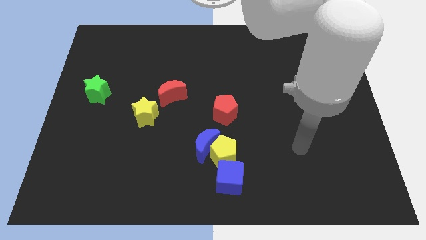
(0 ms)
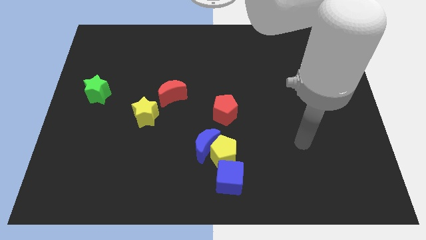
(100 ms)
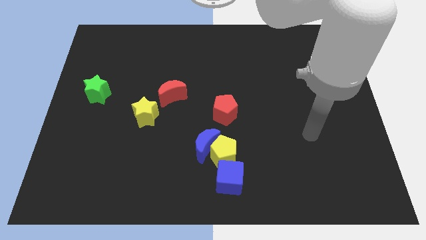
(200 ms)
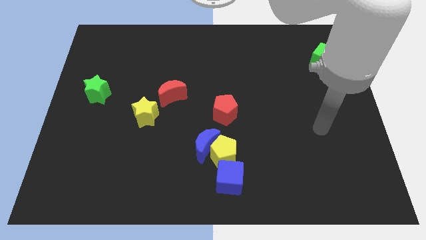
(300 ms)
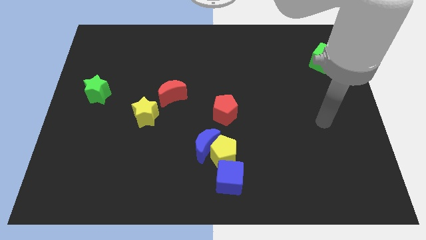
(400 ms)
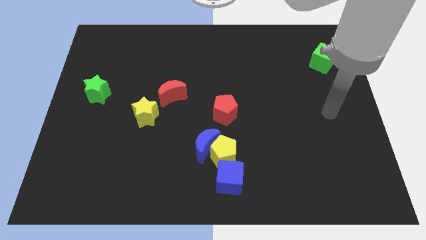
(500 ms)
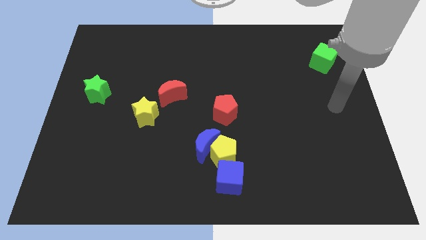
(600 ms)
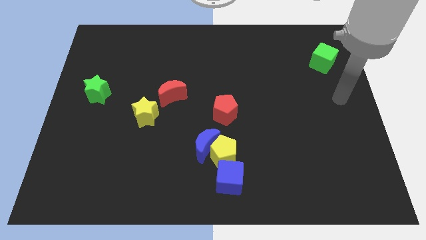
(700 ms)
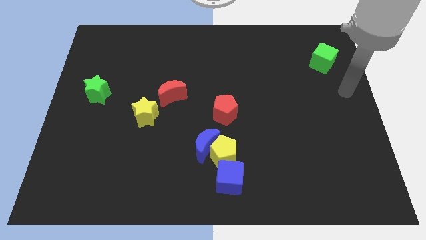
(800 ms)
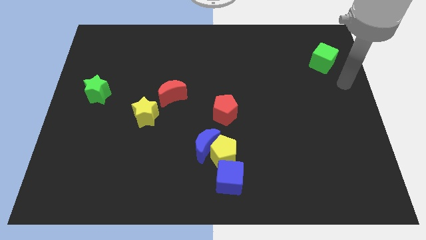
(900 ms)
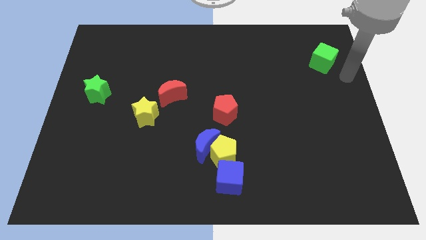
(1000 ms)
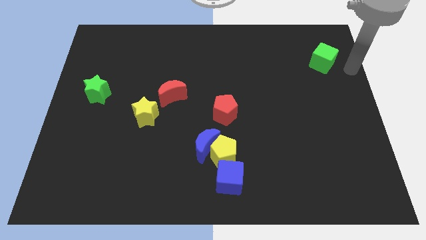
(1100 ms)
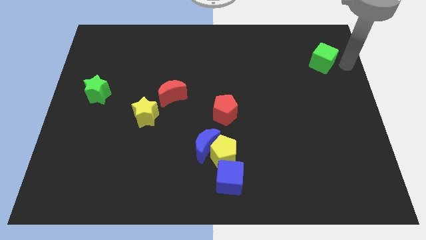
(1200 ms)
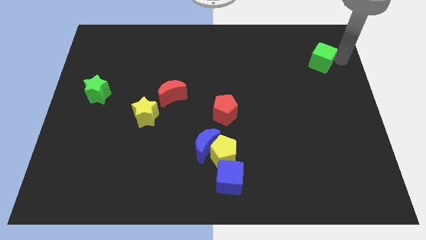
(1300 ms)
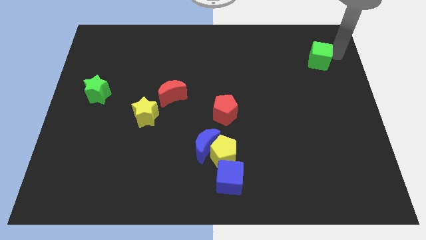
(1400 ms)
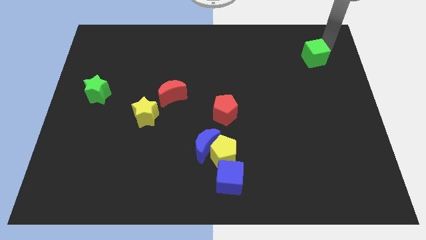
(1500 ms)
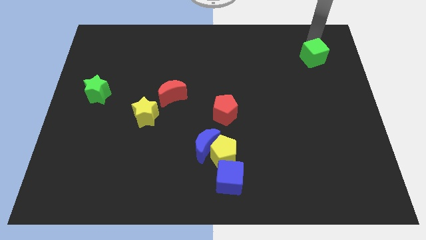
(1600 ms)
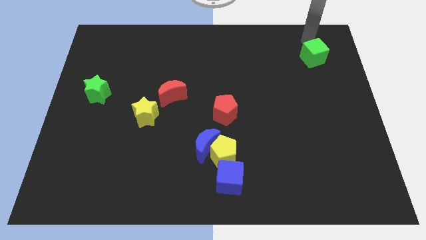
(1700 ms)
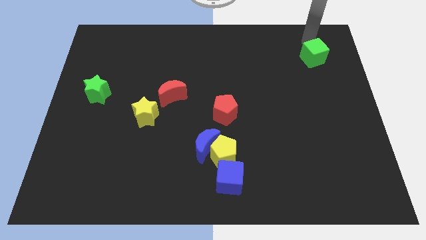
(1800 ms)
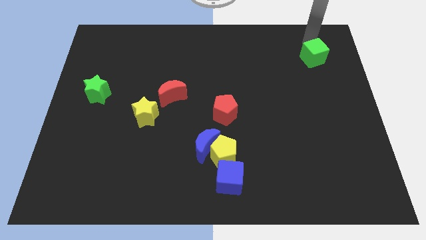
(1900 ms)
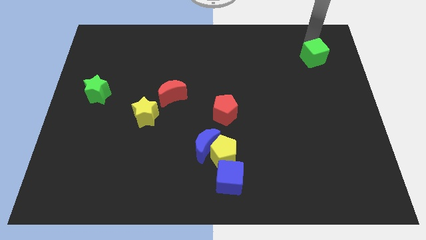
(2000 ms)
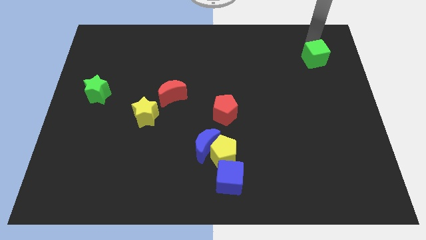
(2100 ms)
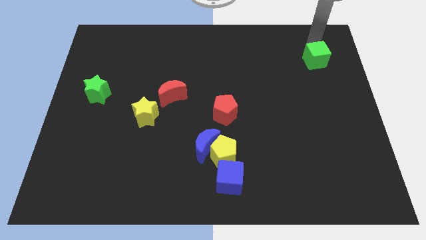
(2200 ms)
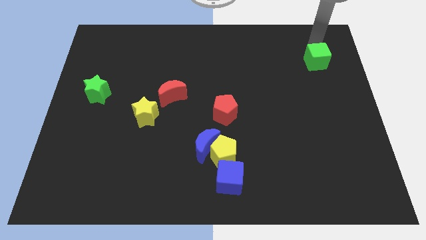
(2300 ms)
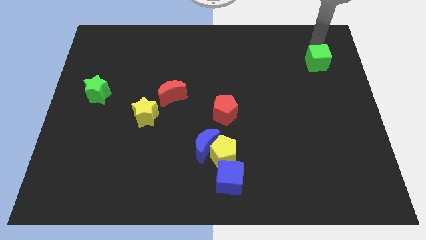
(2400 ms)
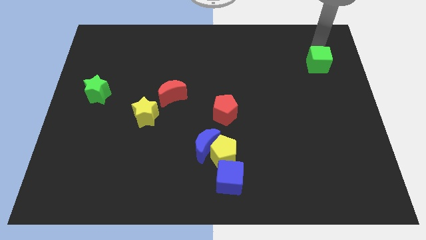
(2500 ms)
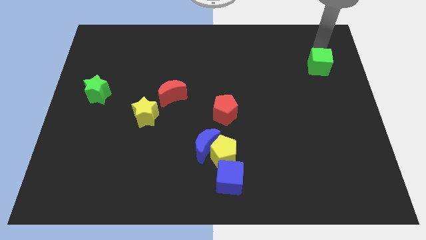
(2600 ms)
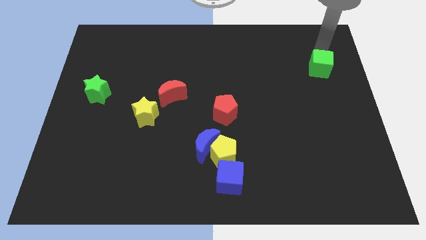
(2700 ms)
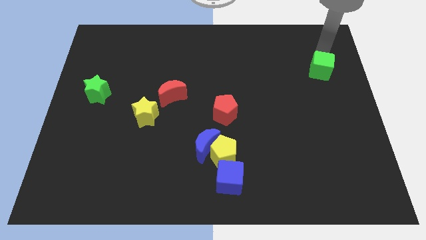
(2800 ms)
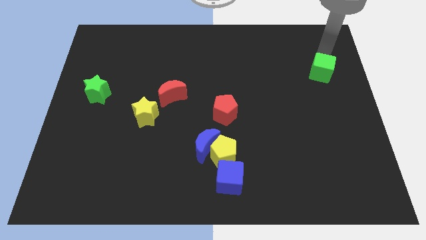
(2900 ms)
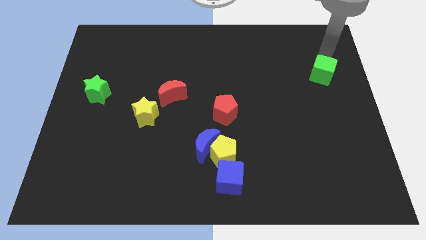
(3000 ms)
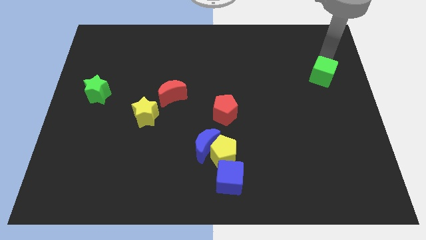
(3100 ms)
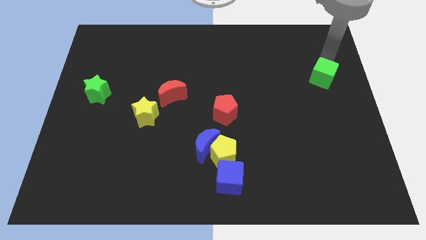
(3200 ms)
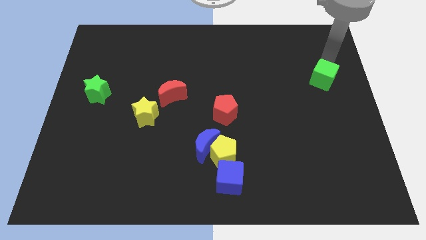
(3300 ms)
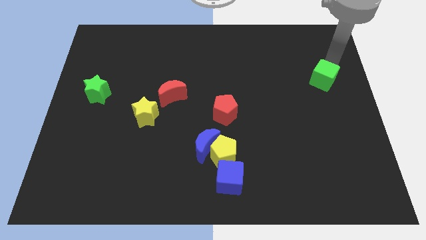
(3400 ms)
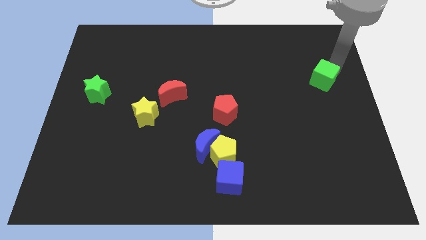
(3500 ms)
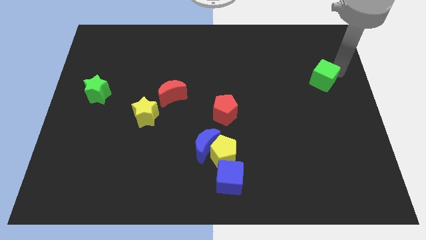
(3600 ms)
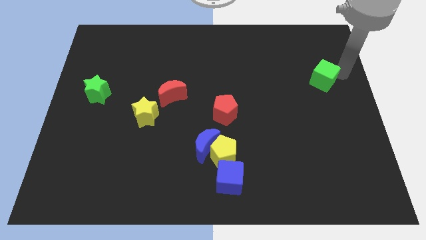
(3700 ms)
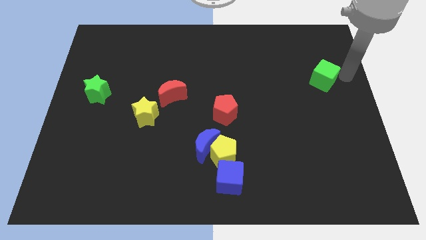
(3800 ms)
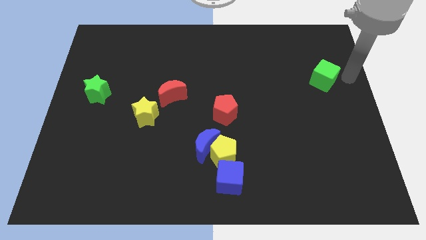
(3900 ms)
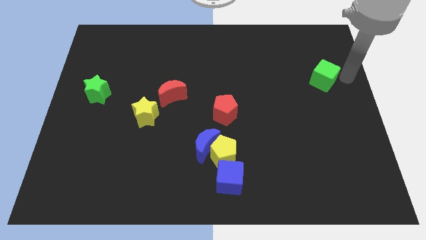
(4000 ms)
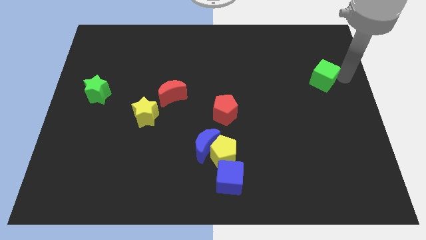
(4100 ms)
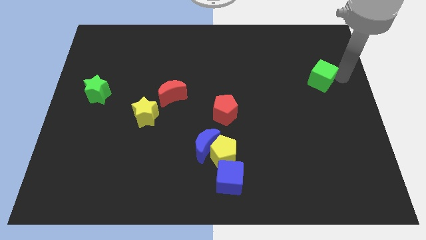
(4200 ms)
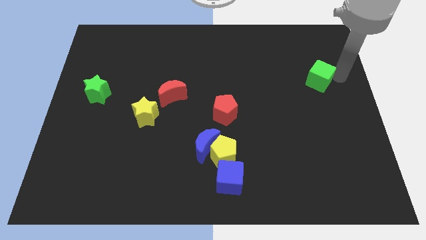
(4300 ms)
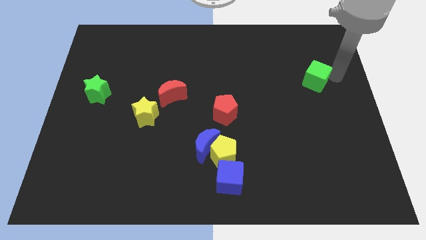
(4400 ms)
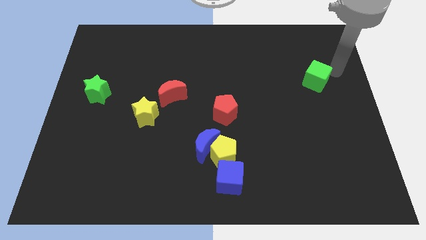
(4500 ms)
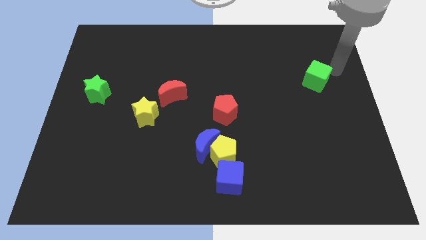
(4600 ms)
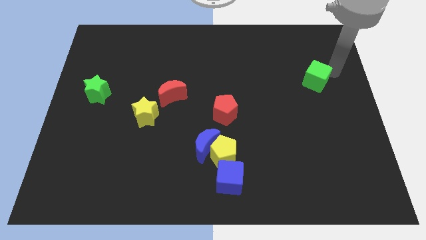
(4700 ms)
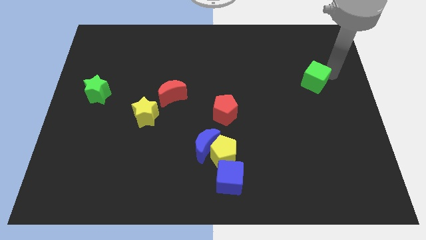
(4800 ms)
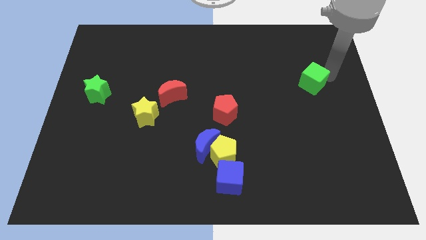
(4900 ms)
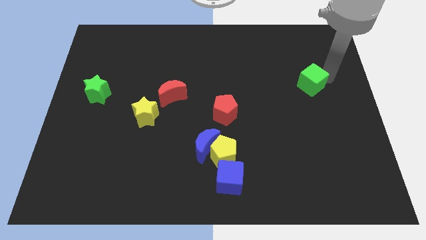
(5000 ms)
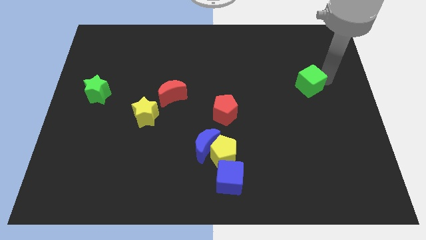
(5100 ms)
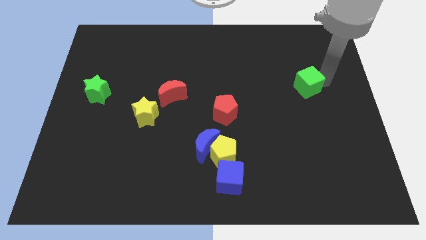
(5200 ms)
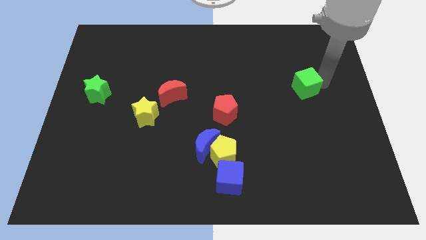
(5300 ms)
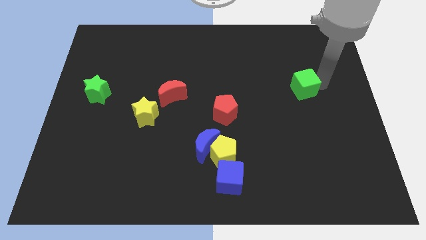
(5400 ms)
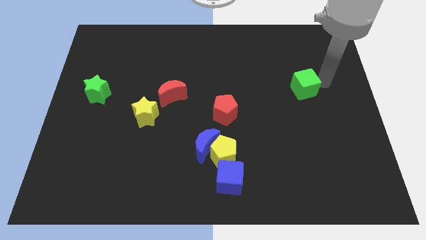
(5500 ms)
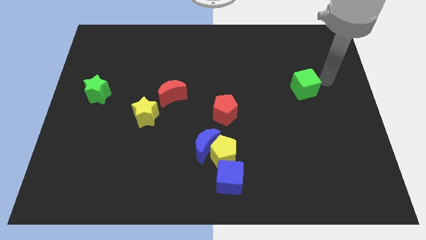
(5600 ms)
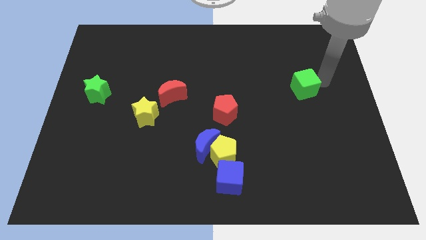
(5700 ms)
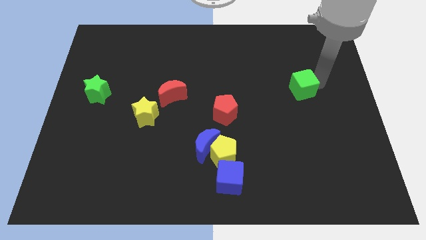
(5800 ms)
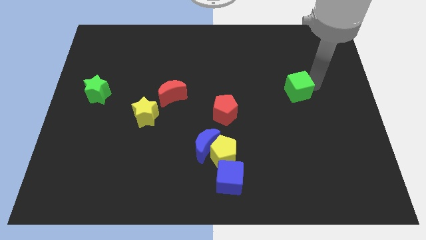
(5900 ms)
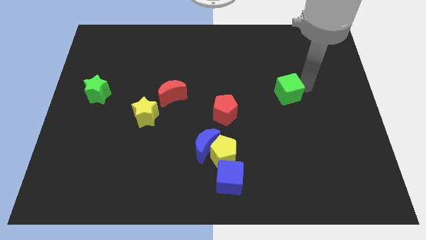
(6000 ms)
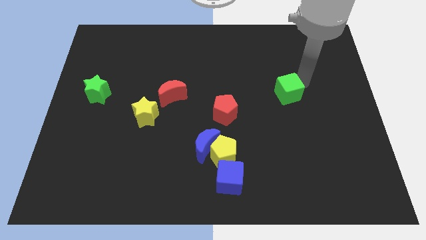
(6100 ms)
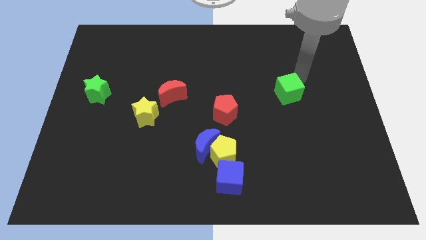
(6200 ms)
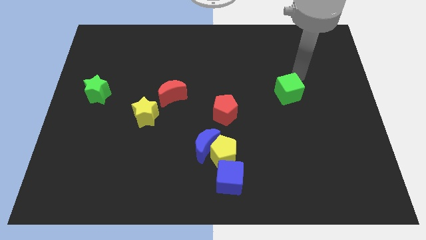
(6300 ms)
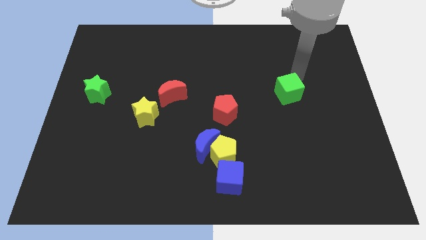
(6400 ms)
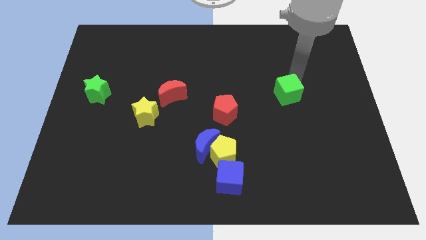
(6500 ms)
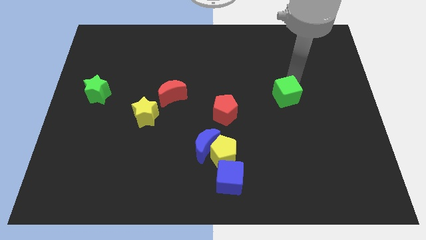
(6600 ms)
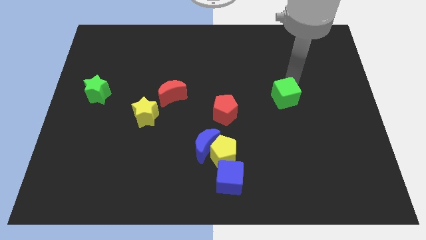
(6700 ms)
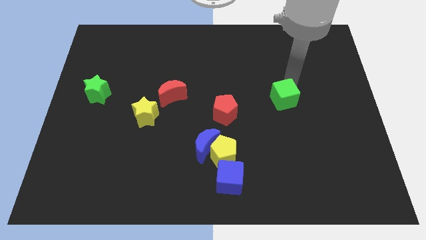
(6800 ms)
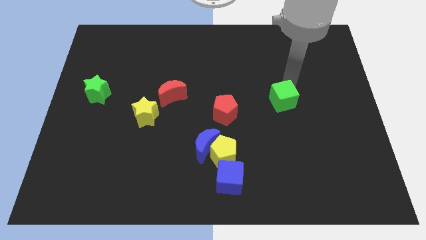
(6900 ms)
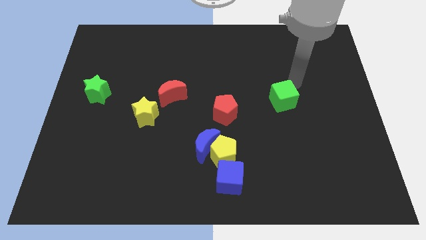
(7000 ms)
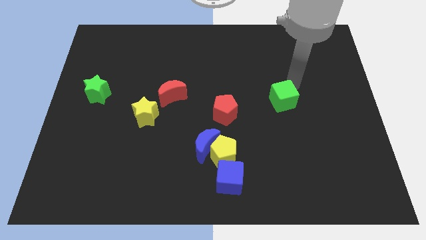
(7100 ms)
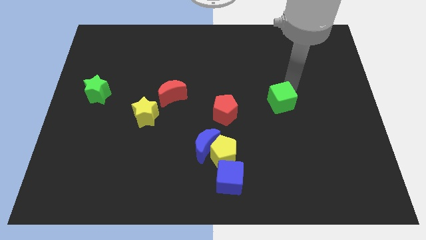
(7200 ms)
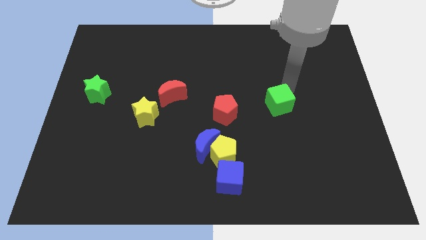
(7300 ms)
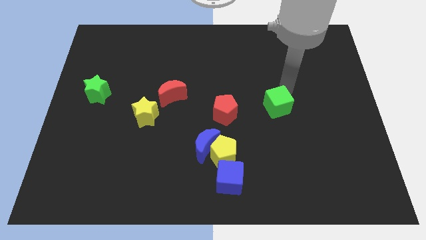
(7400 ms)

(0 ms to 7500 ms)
move the green cube downwards and left

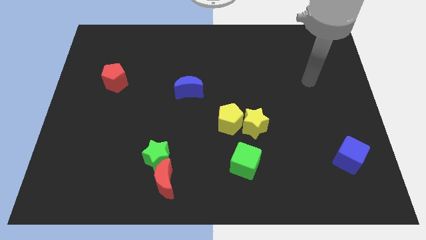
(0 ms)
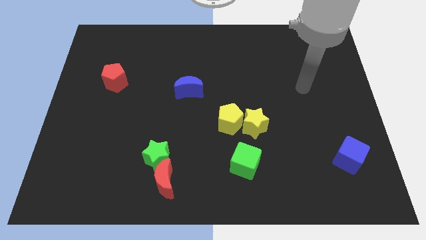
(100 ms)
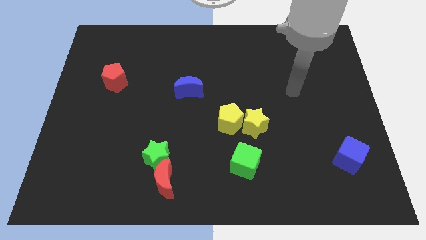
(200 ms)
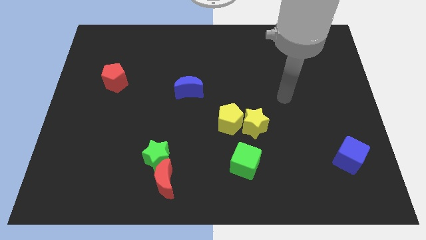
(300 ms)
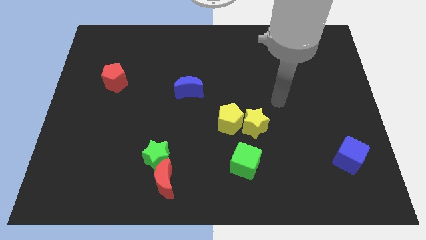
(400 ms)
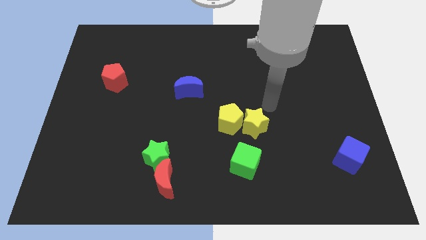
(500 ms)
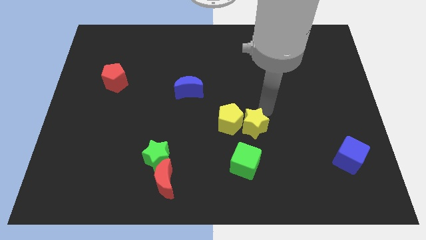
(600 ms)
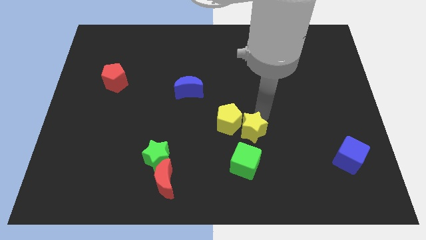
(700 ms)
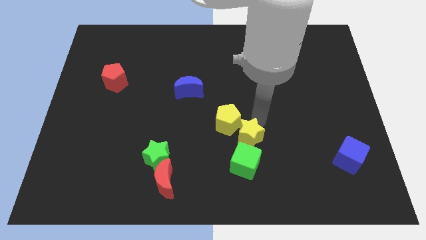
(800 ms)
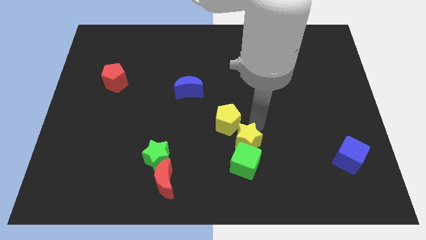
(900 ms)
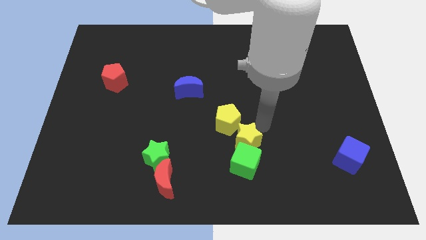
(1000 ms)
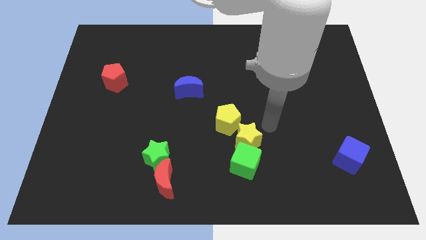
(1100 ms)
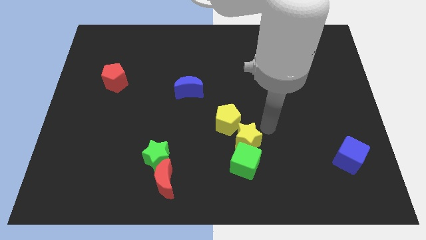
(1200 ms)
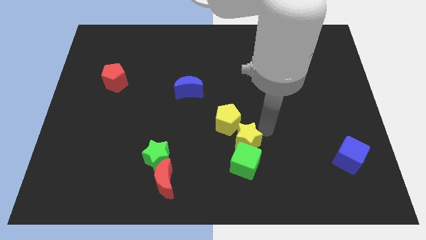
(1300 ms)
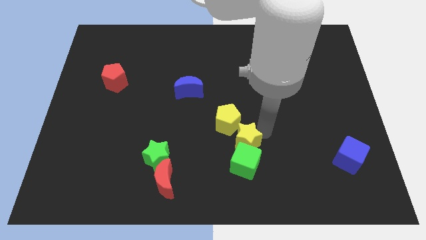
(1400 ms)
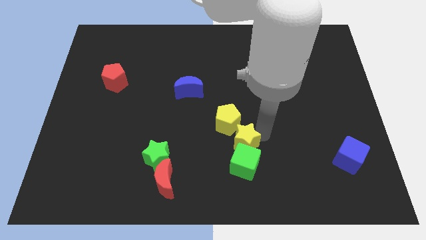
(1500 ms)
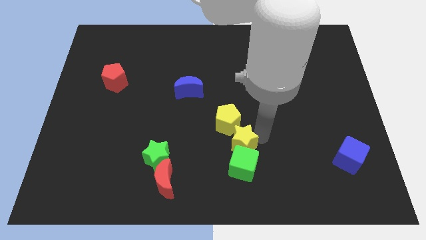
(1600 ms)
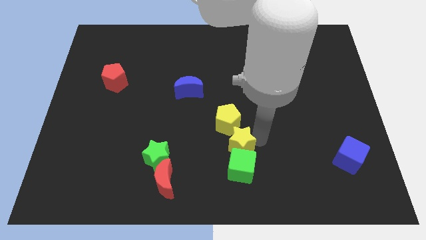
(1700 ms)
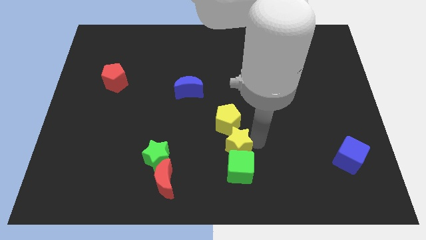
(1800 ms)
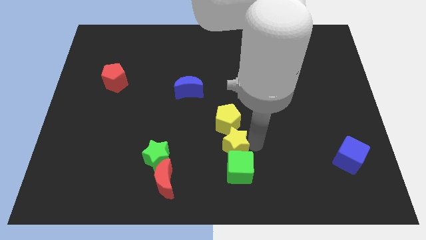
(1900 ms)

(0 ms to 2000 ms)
slide the yellow star diagonally downwards and left a bit
